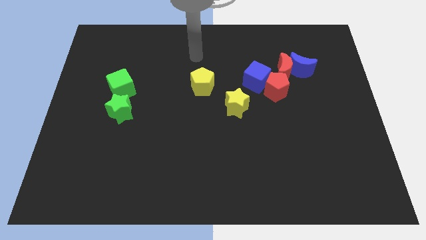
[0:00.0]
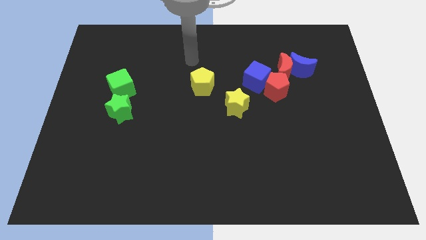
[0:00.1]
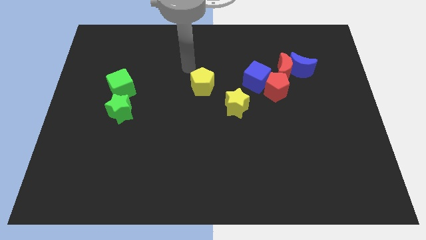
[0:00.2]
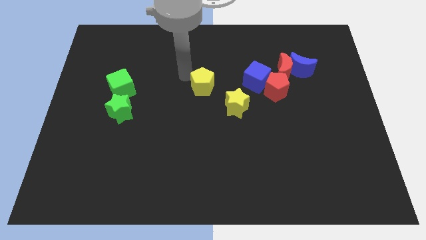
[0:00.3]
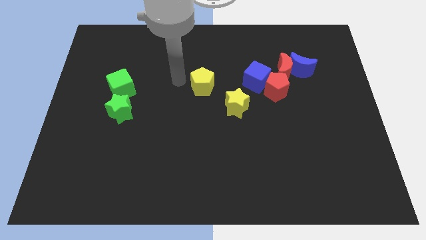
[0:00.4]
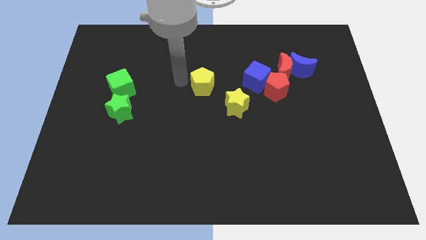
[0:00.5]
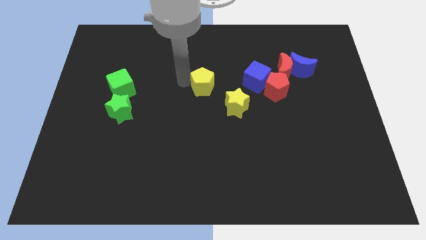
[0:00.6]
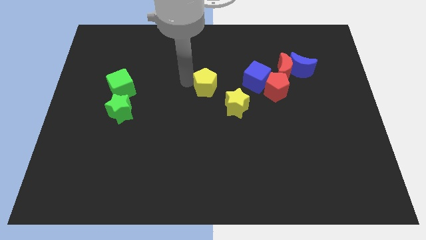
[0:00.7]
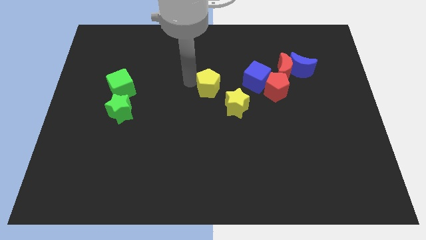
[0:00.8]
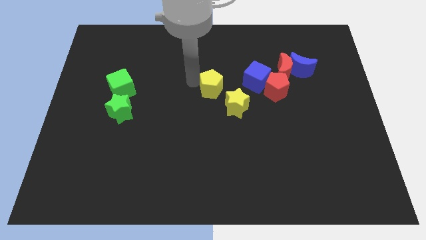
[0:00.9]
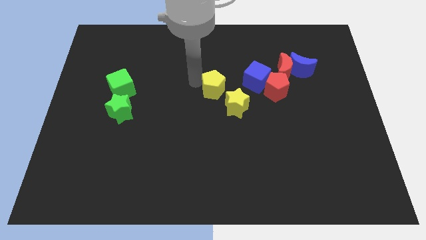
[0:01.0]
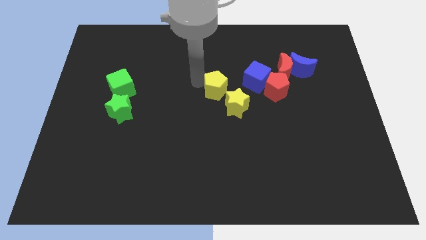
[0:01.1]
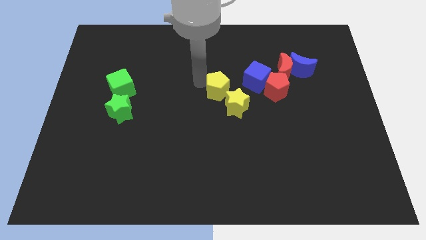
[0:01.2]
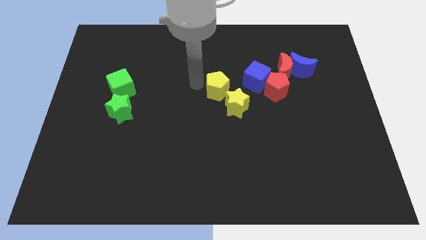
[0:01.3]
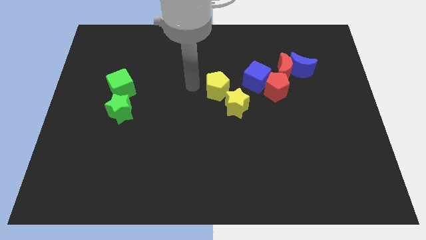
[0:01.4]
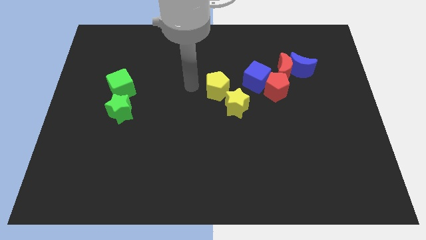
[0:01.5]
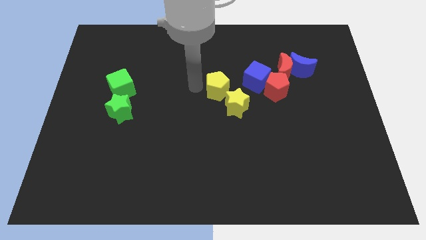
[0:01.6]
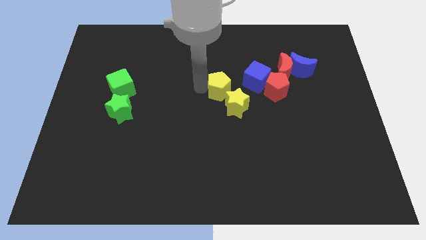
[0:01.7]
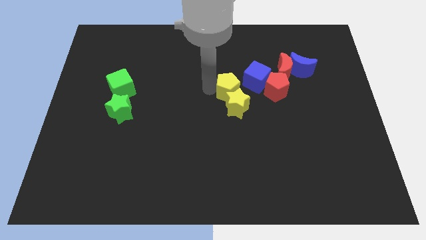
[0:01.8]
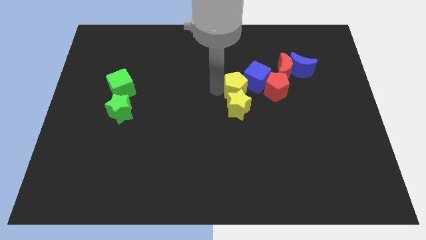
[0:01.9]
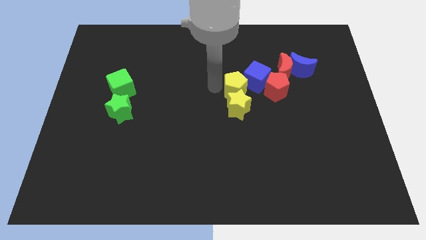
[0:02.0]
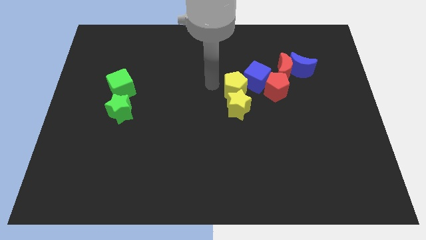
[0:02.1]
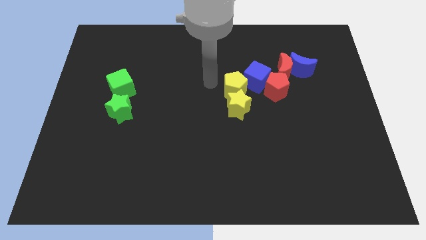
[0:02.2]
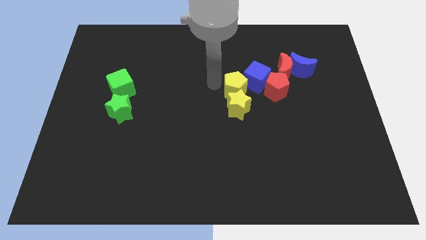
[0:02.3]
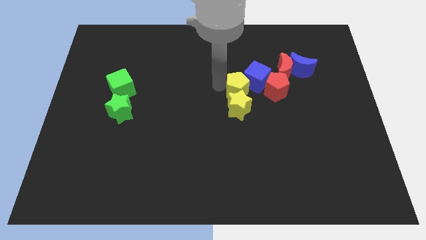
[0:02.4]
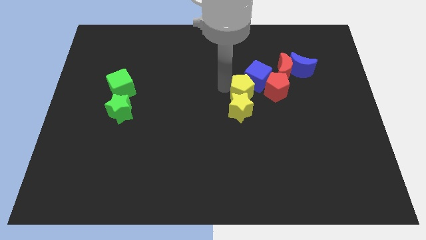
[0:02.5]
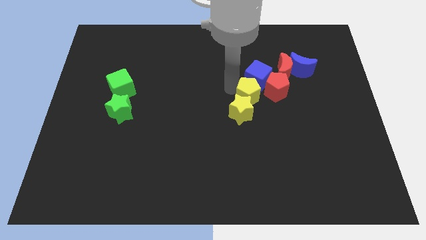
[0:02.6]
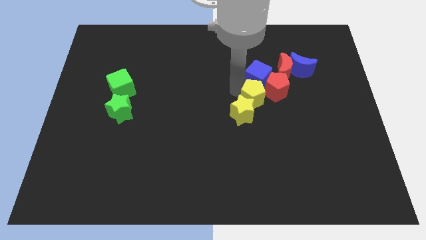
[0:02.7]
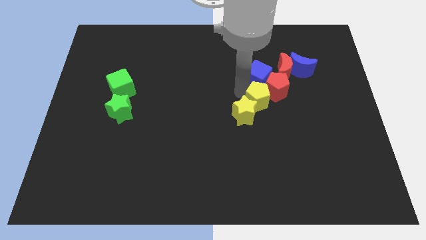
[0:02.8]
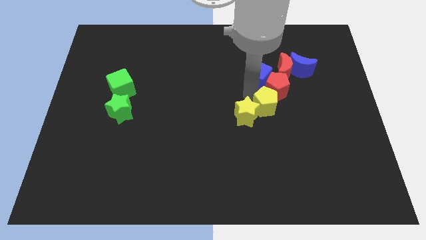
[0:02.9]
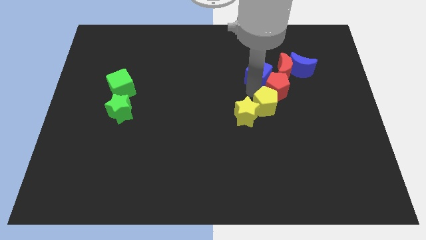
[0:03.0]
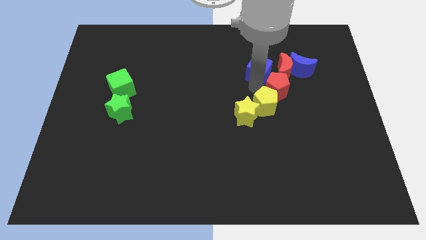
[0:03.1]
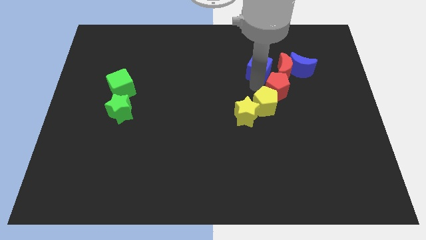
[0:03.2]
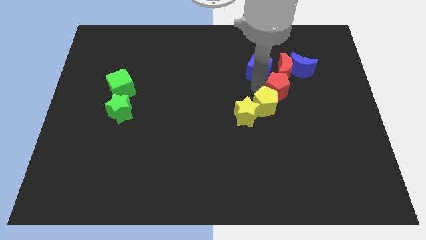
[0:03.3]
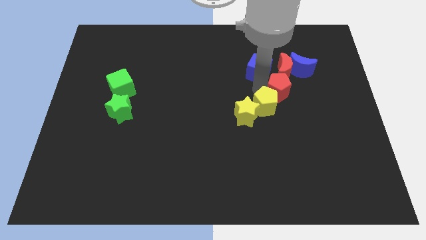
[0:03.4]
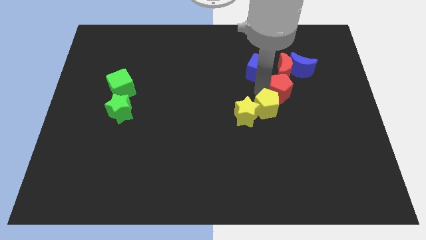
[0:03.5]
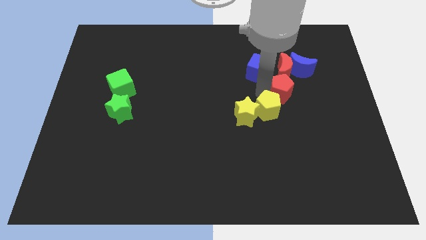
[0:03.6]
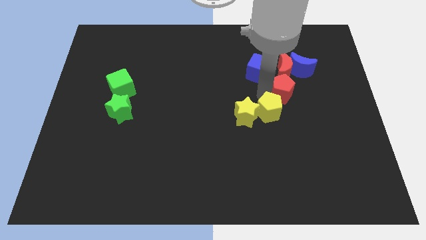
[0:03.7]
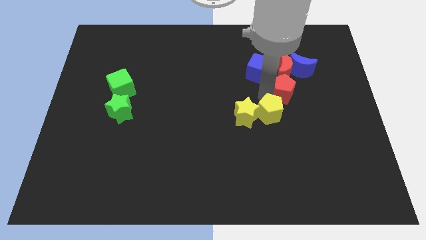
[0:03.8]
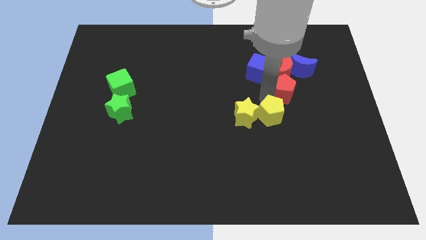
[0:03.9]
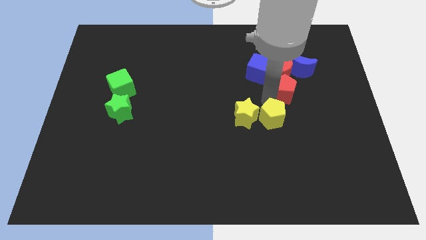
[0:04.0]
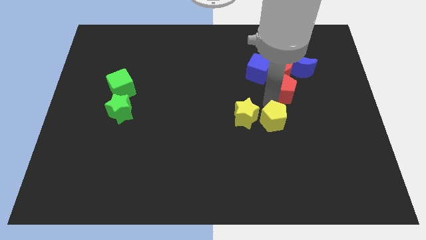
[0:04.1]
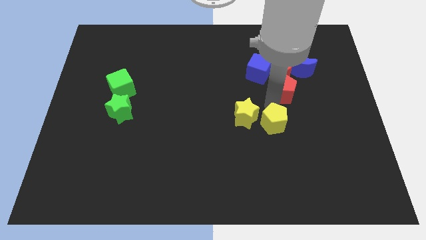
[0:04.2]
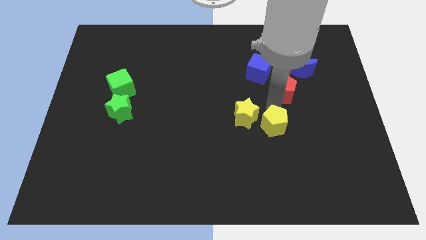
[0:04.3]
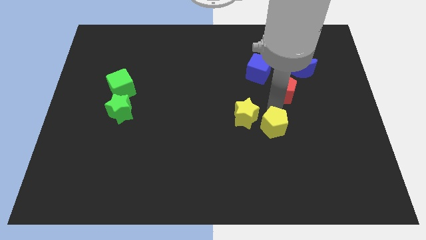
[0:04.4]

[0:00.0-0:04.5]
move the yellow pentagon downwards and to the right

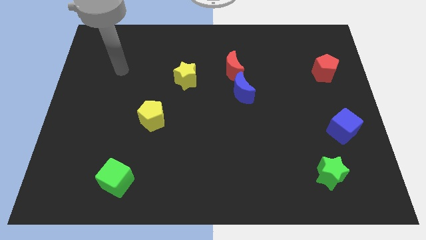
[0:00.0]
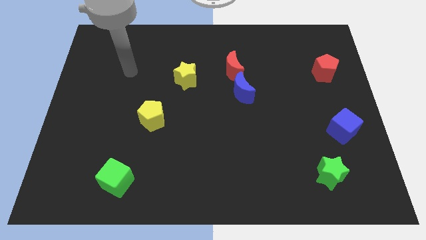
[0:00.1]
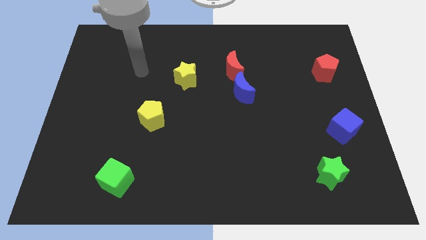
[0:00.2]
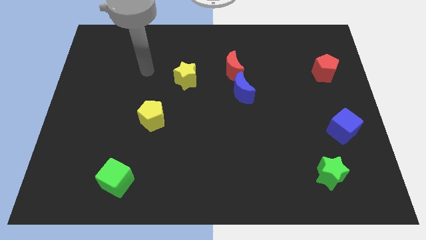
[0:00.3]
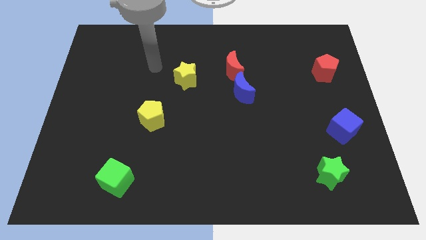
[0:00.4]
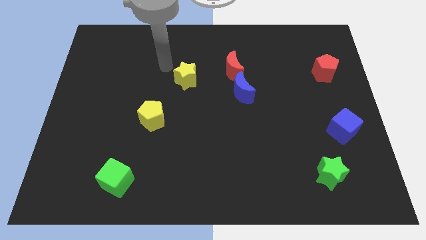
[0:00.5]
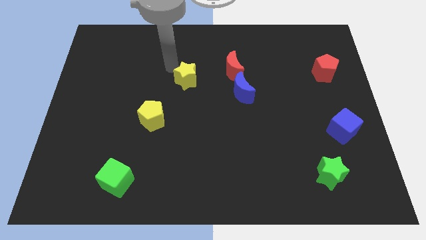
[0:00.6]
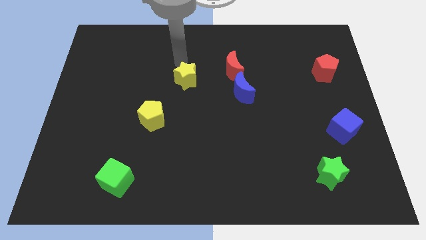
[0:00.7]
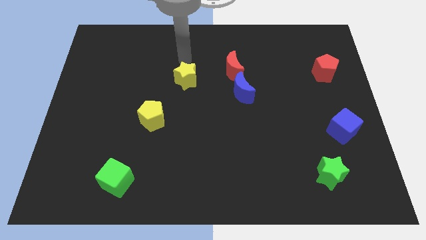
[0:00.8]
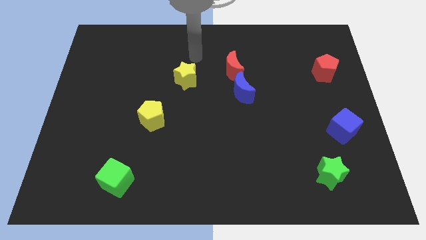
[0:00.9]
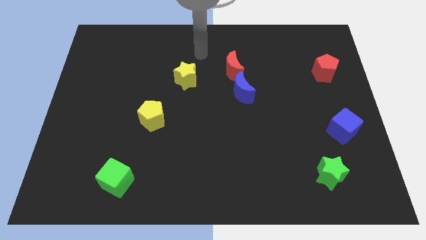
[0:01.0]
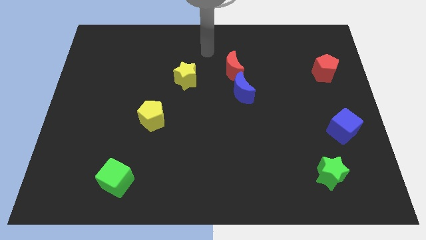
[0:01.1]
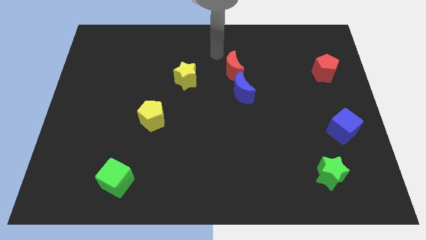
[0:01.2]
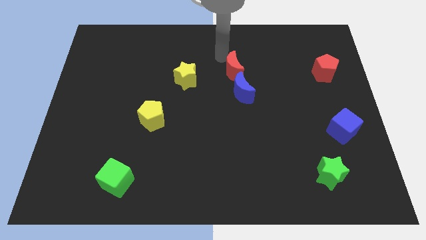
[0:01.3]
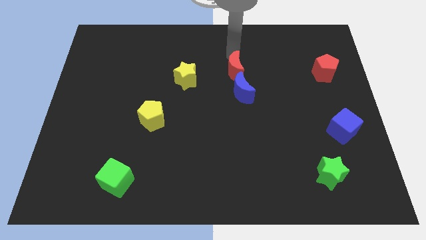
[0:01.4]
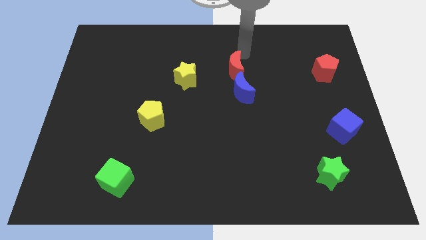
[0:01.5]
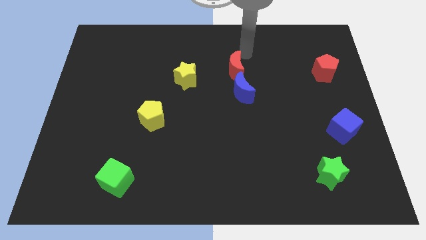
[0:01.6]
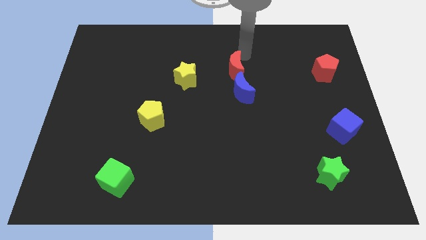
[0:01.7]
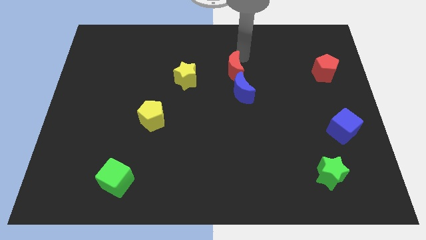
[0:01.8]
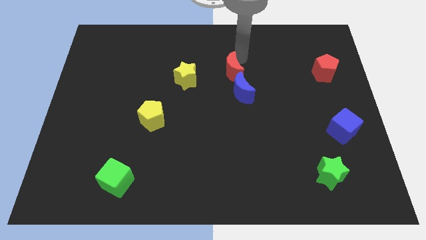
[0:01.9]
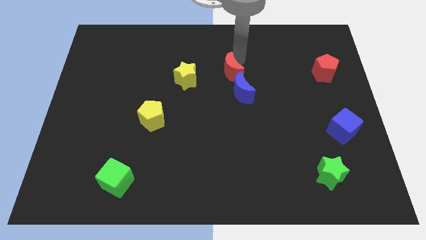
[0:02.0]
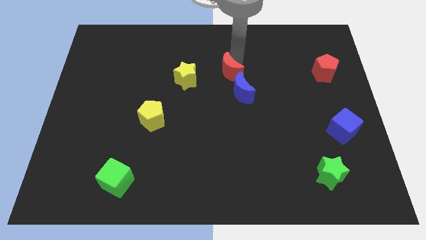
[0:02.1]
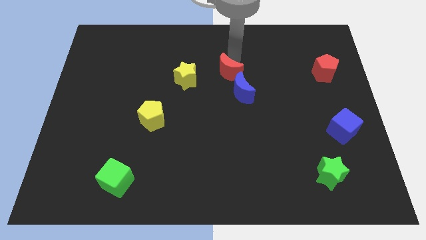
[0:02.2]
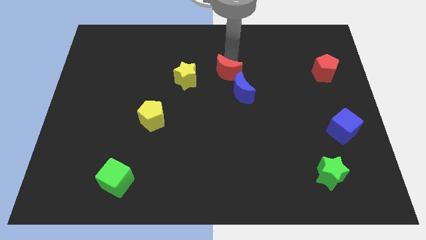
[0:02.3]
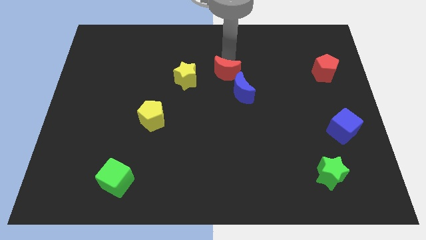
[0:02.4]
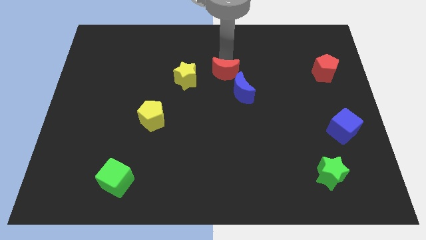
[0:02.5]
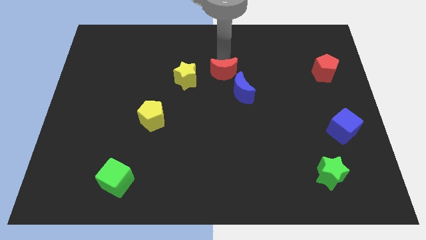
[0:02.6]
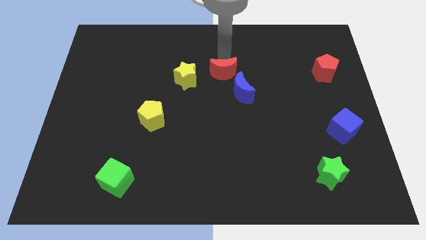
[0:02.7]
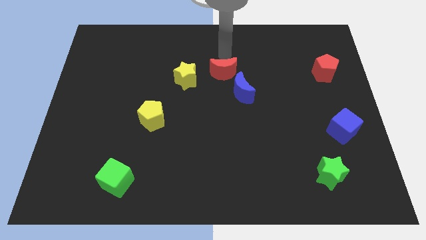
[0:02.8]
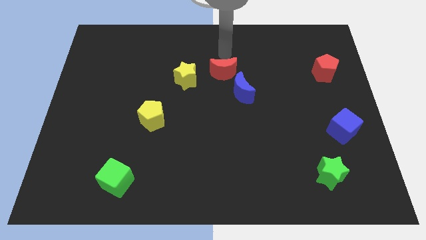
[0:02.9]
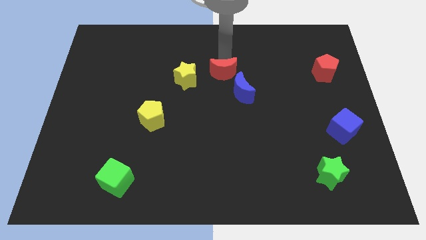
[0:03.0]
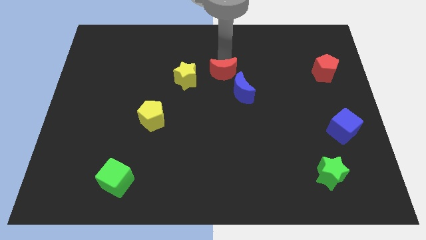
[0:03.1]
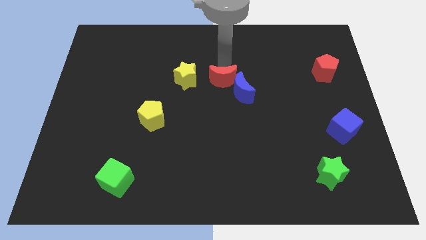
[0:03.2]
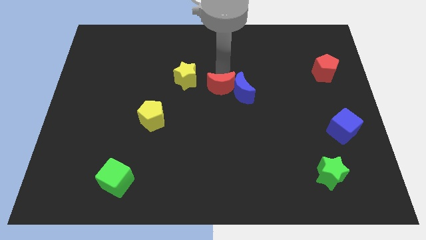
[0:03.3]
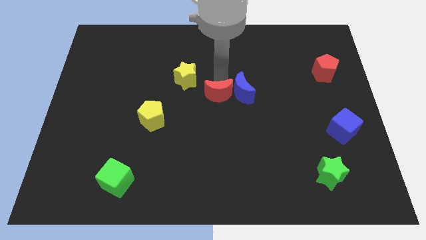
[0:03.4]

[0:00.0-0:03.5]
move the red moon somewhat downwards
